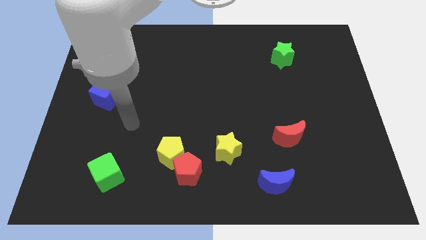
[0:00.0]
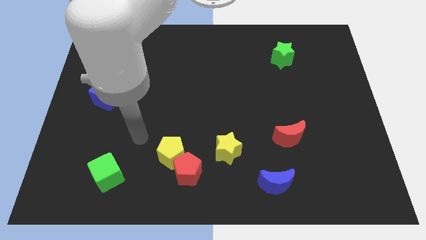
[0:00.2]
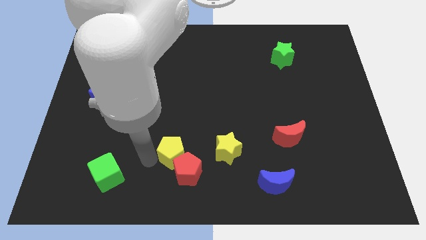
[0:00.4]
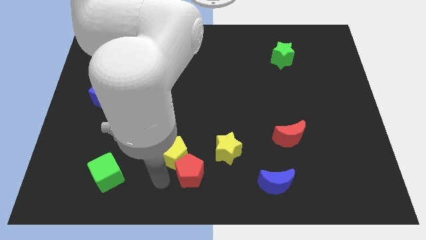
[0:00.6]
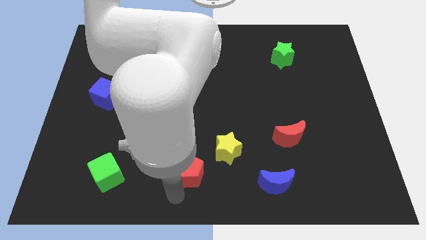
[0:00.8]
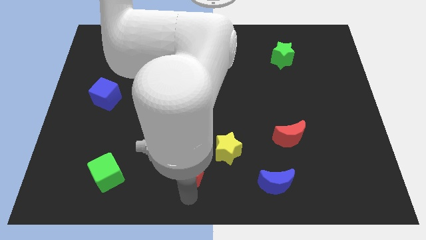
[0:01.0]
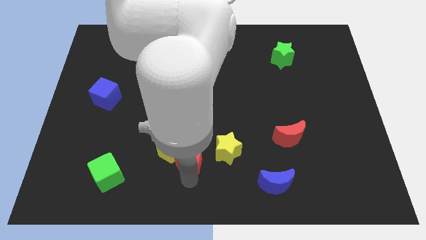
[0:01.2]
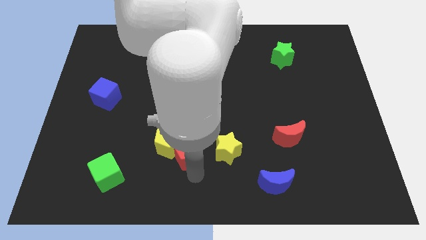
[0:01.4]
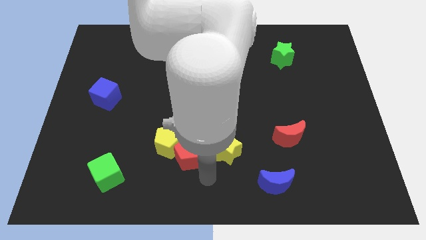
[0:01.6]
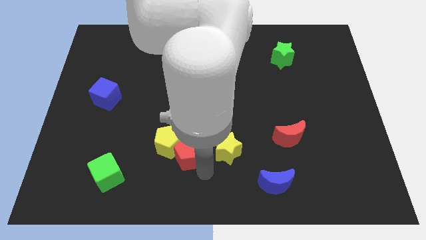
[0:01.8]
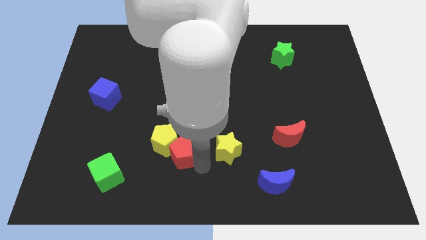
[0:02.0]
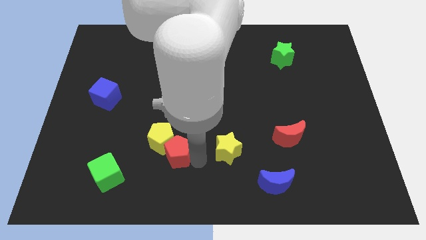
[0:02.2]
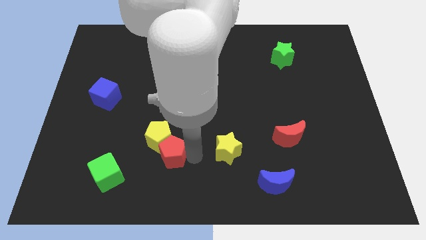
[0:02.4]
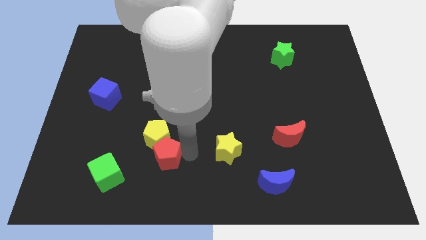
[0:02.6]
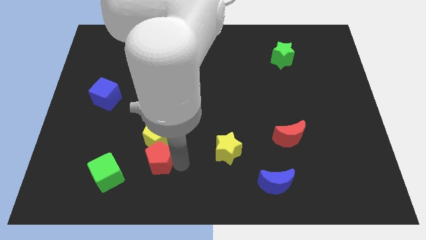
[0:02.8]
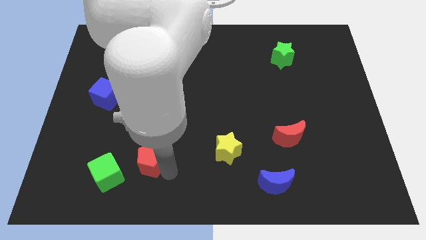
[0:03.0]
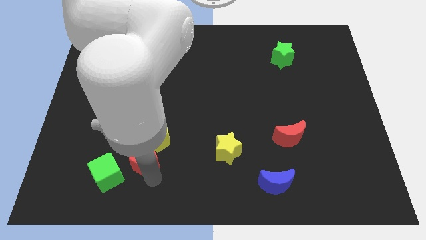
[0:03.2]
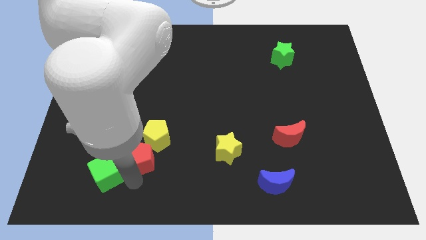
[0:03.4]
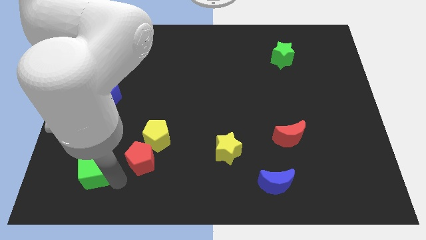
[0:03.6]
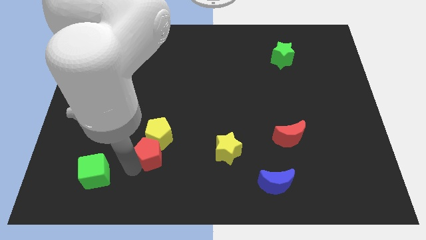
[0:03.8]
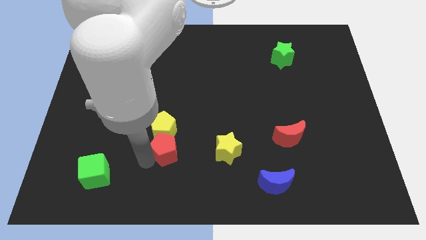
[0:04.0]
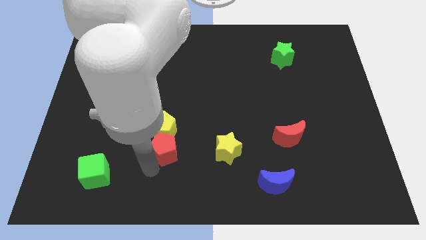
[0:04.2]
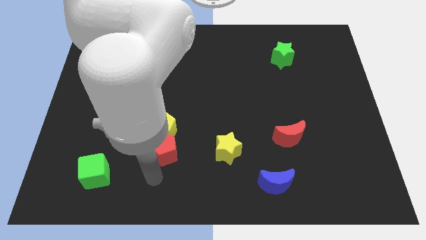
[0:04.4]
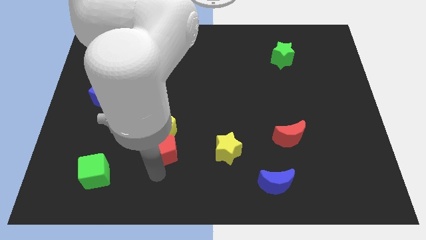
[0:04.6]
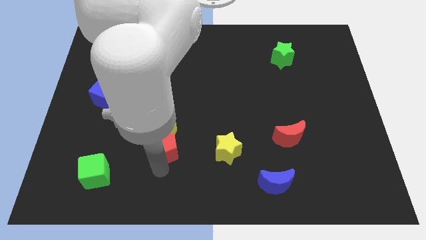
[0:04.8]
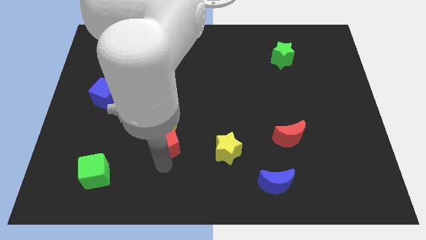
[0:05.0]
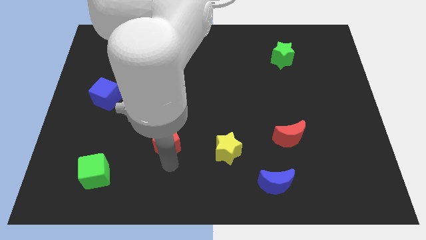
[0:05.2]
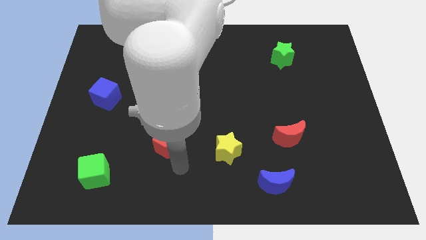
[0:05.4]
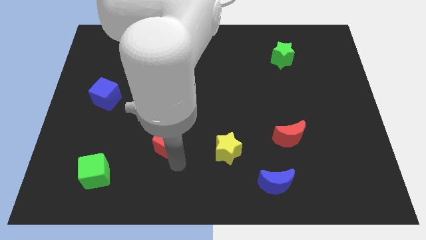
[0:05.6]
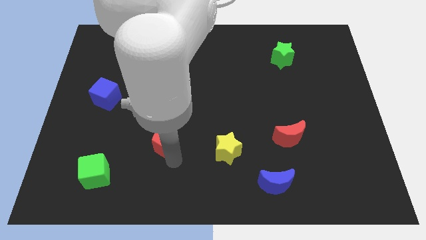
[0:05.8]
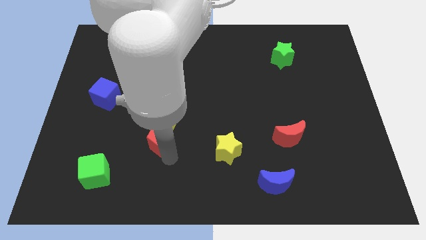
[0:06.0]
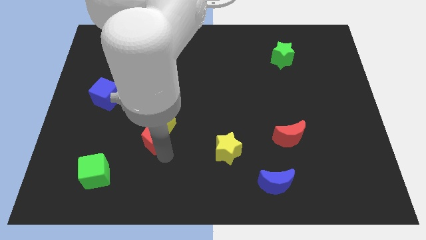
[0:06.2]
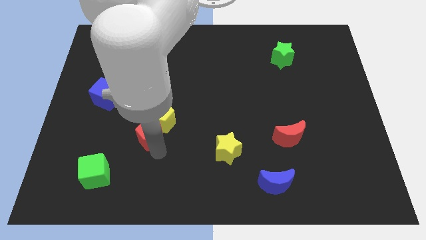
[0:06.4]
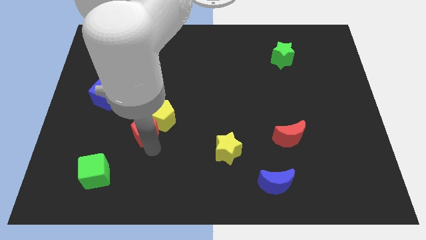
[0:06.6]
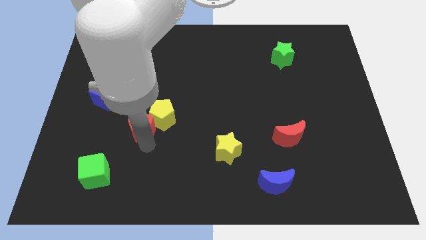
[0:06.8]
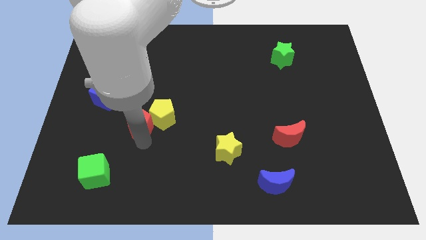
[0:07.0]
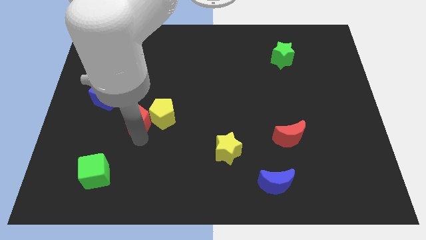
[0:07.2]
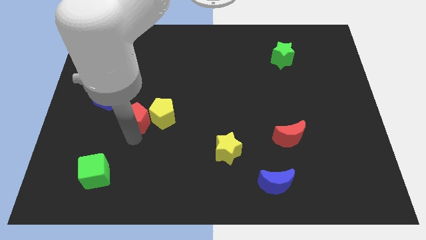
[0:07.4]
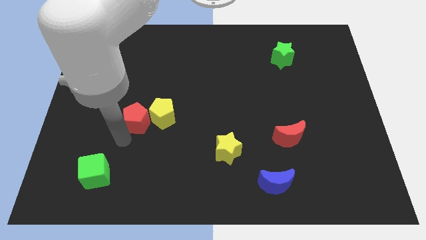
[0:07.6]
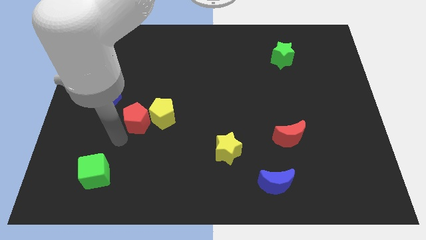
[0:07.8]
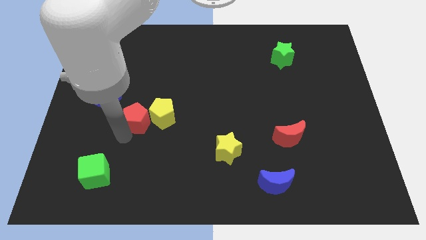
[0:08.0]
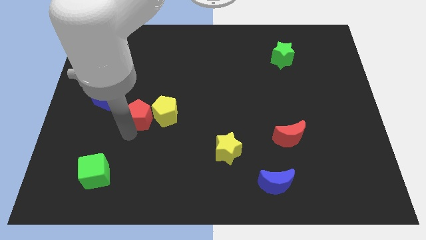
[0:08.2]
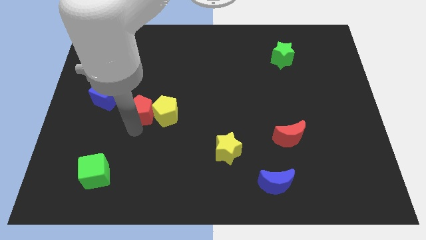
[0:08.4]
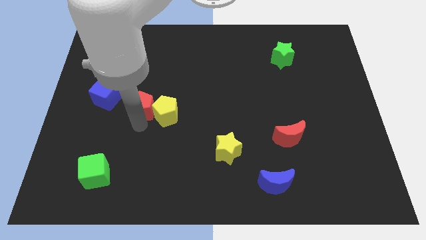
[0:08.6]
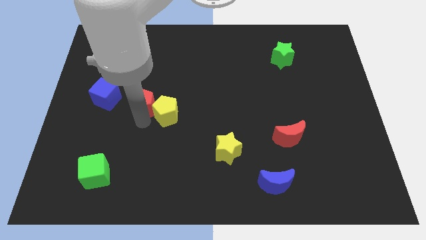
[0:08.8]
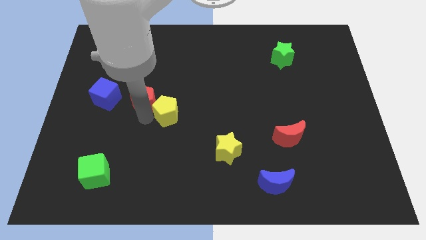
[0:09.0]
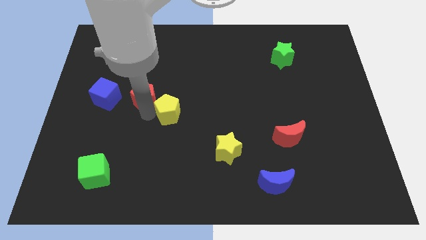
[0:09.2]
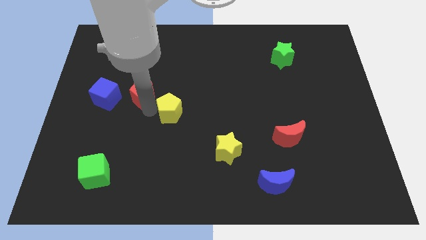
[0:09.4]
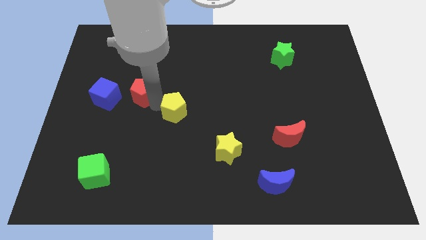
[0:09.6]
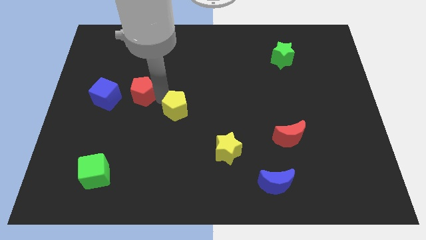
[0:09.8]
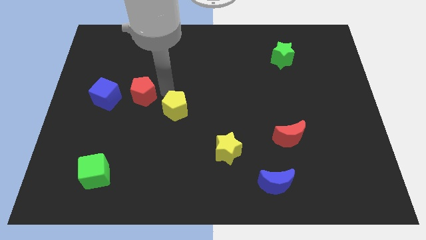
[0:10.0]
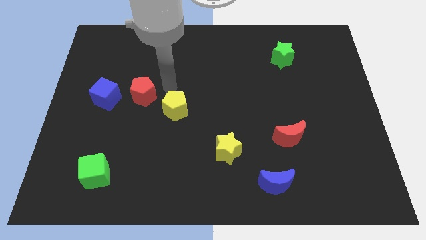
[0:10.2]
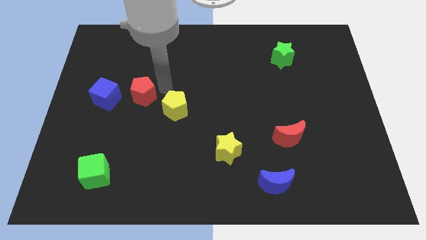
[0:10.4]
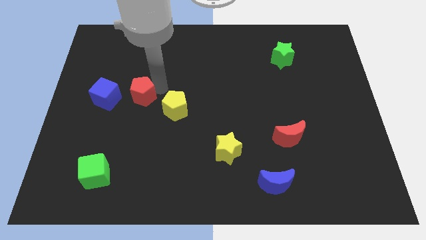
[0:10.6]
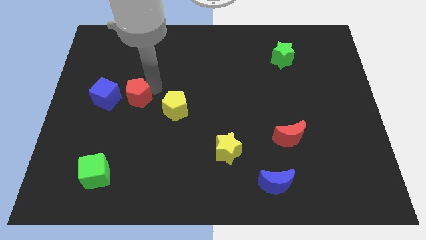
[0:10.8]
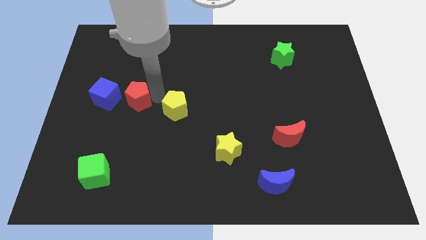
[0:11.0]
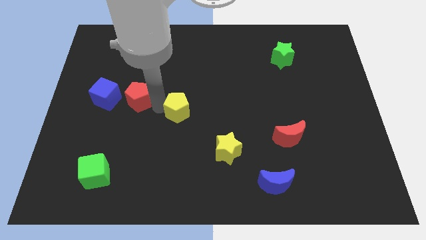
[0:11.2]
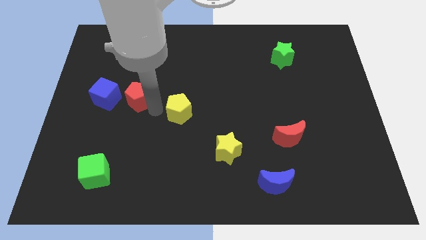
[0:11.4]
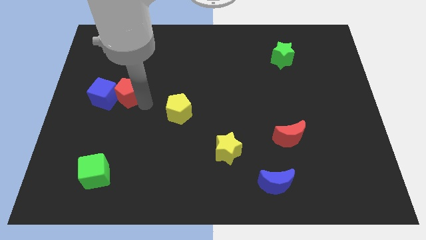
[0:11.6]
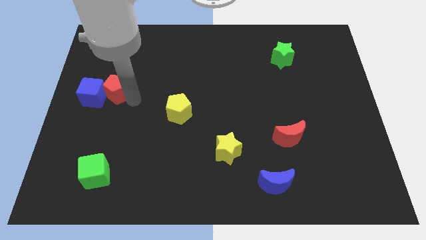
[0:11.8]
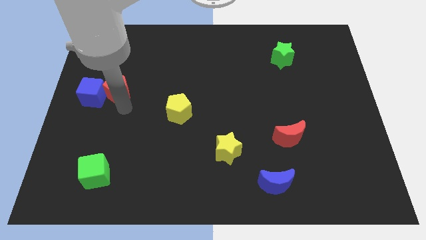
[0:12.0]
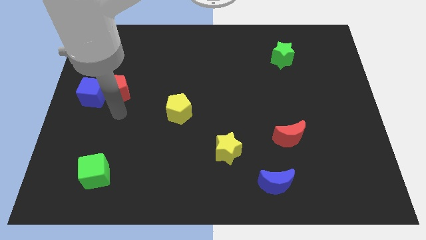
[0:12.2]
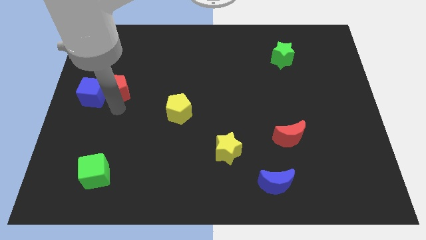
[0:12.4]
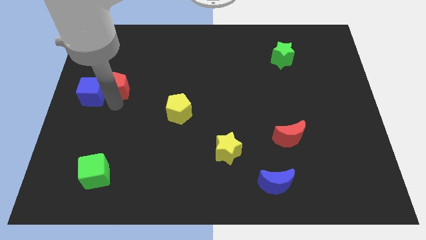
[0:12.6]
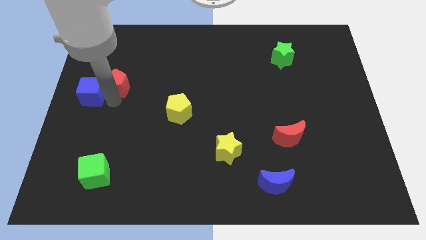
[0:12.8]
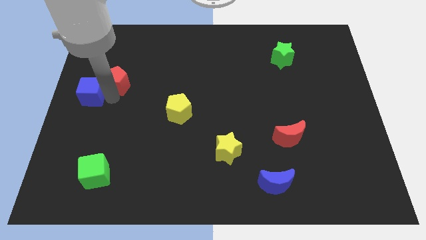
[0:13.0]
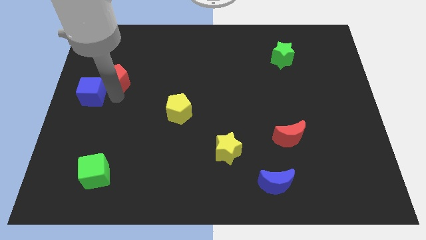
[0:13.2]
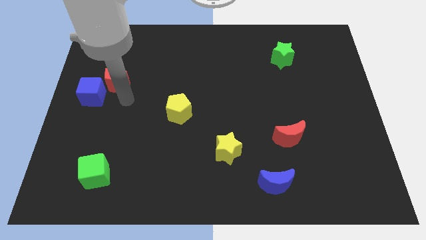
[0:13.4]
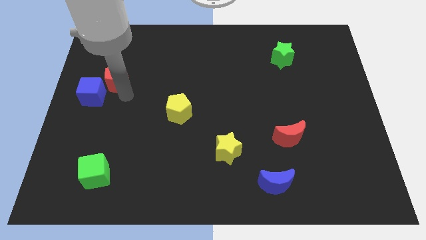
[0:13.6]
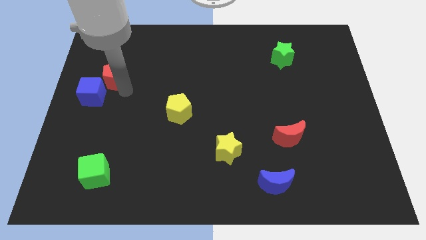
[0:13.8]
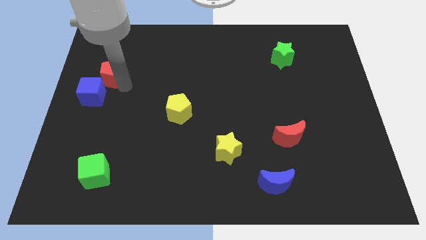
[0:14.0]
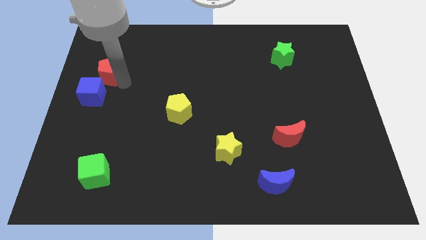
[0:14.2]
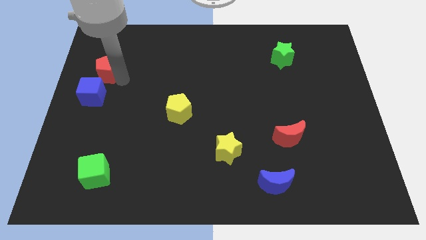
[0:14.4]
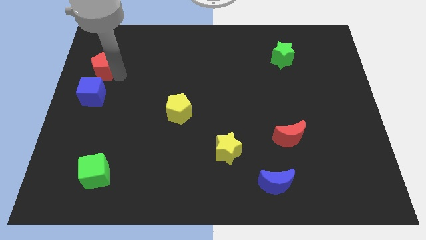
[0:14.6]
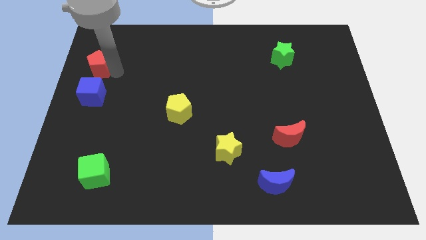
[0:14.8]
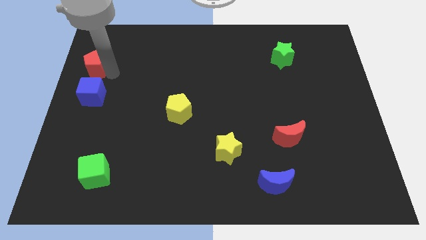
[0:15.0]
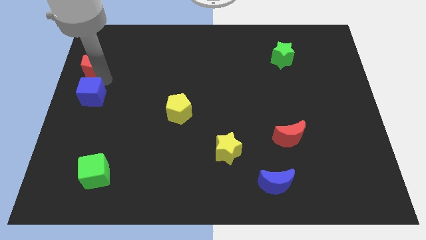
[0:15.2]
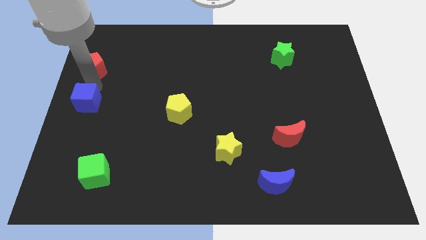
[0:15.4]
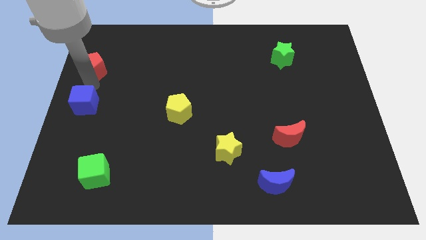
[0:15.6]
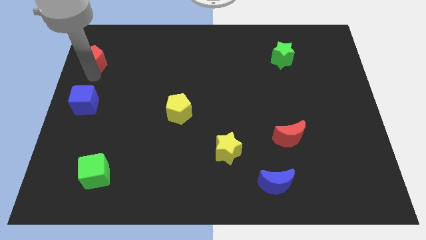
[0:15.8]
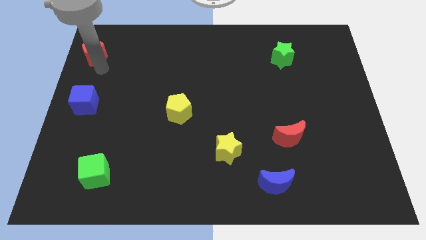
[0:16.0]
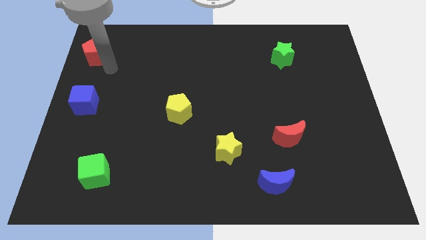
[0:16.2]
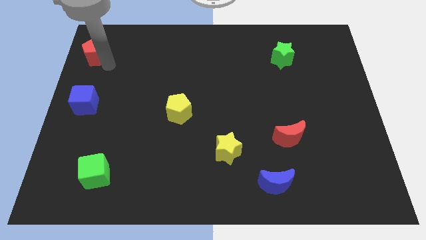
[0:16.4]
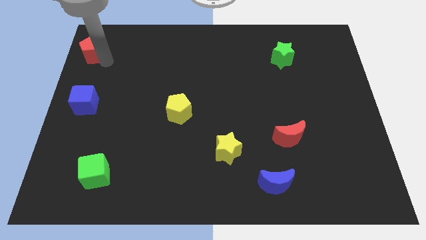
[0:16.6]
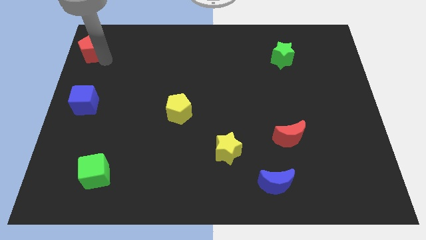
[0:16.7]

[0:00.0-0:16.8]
slide the red pentagon to the top left corner
